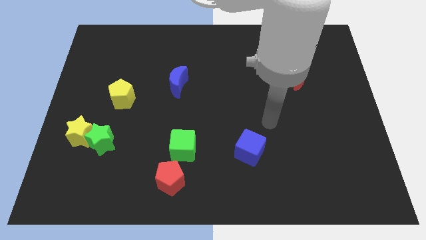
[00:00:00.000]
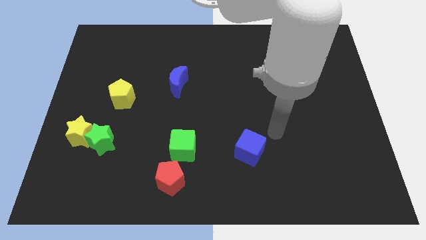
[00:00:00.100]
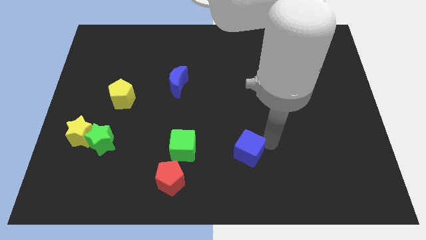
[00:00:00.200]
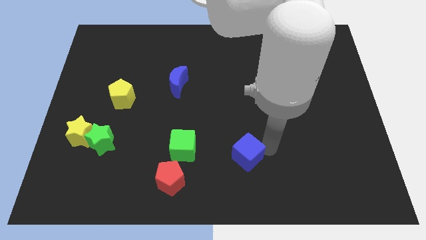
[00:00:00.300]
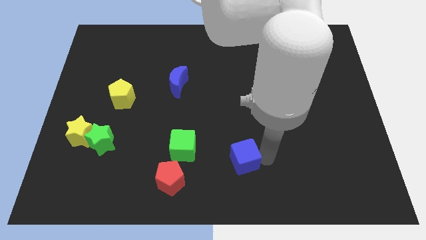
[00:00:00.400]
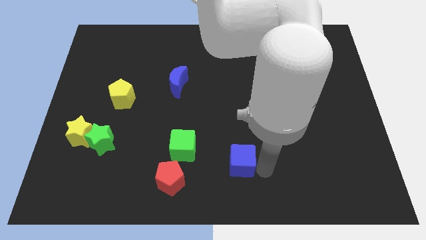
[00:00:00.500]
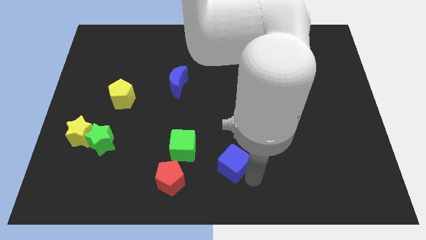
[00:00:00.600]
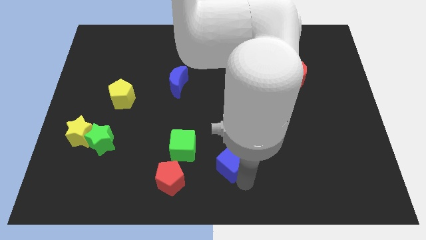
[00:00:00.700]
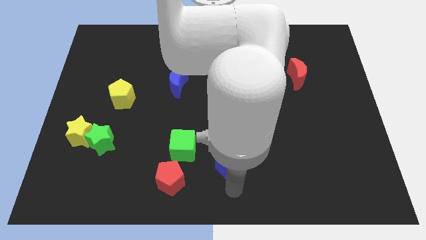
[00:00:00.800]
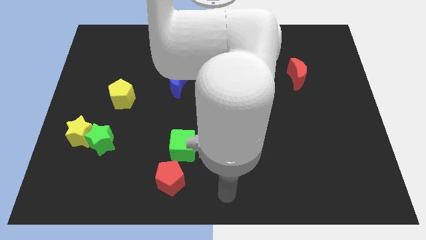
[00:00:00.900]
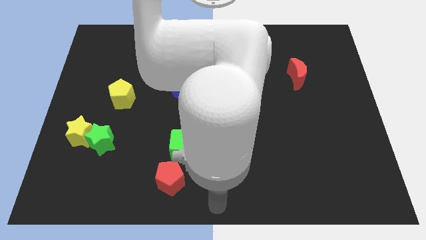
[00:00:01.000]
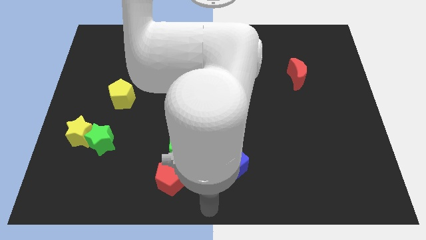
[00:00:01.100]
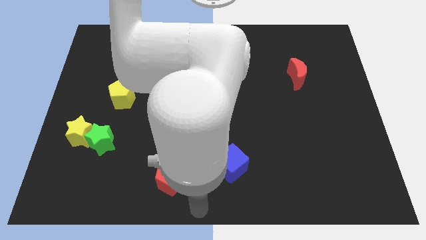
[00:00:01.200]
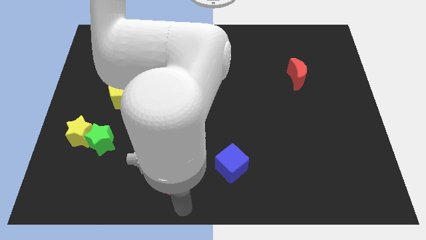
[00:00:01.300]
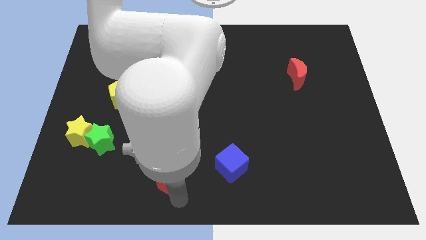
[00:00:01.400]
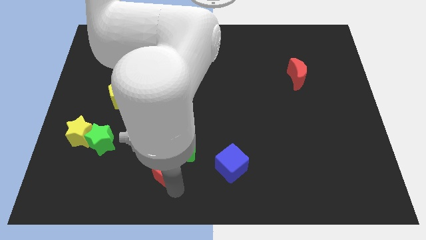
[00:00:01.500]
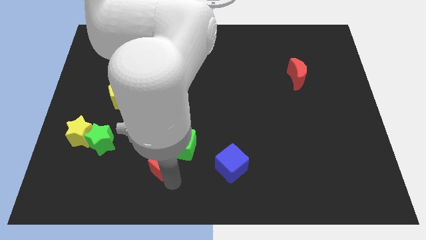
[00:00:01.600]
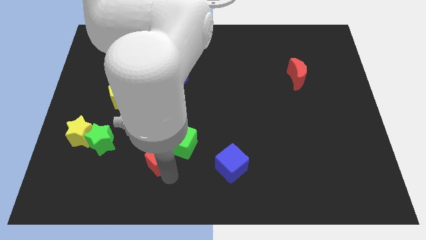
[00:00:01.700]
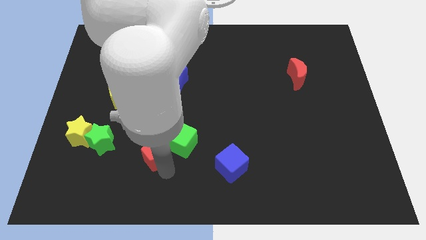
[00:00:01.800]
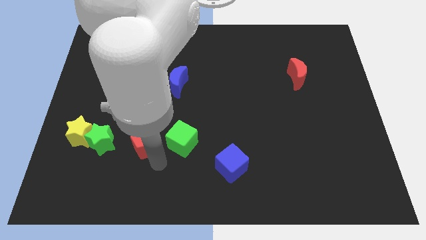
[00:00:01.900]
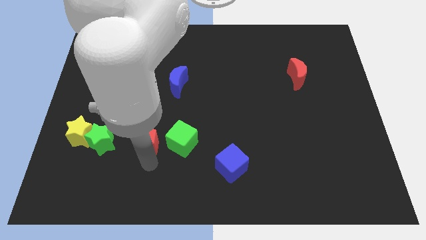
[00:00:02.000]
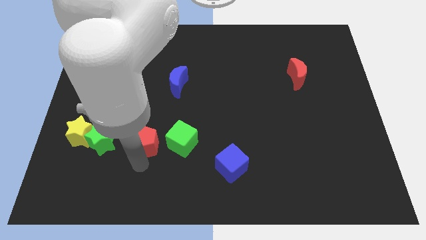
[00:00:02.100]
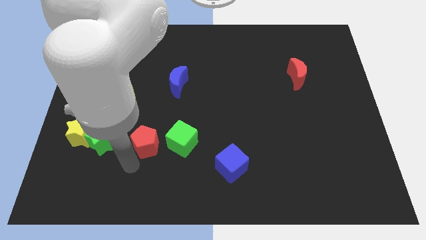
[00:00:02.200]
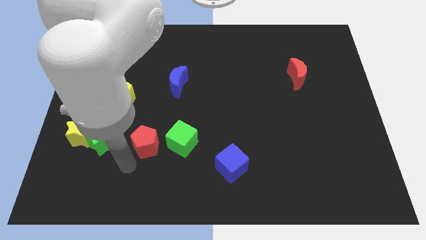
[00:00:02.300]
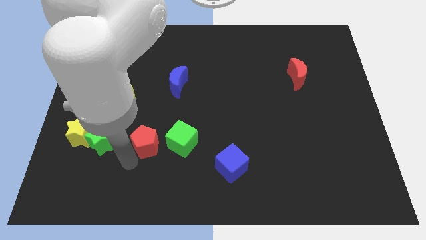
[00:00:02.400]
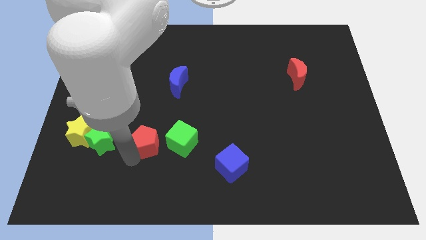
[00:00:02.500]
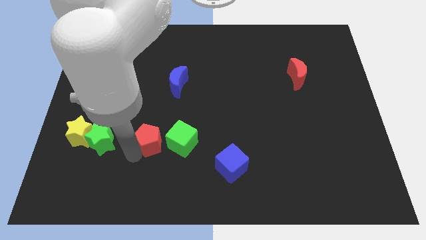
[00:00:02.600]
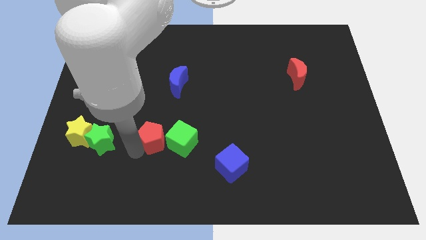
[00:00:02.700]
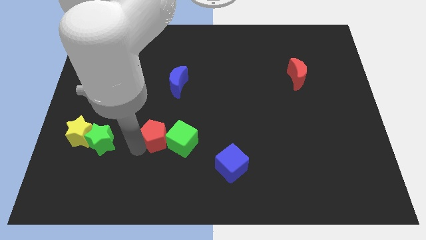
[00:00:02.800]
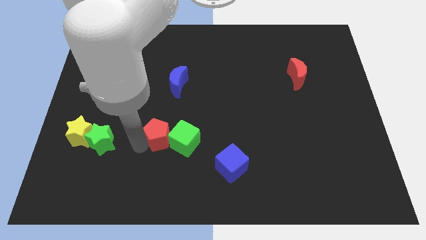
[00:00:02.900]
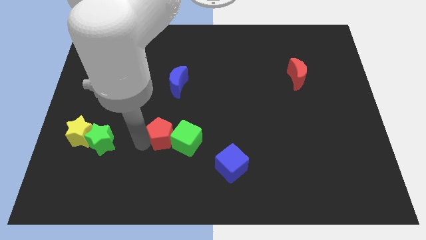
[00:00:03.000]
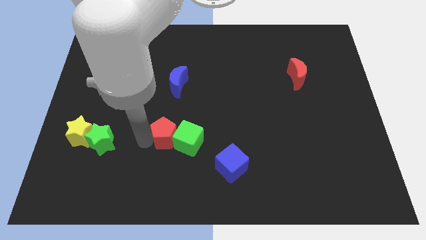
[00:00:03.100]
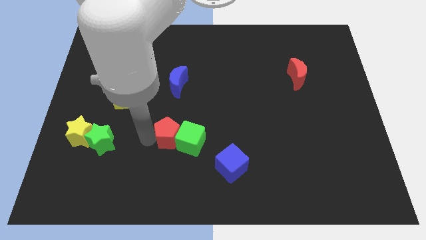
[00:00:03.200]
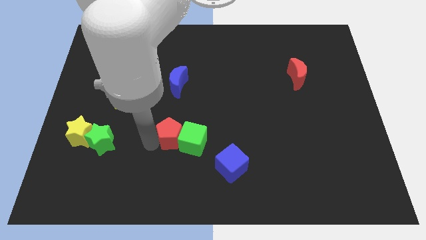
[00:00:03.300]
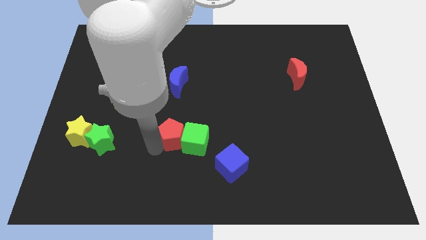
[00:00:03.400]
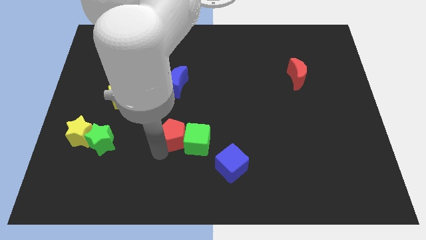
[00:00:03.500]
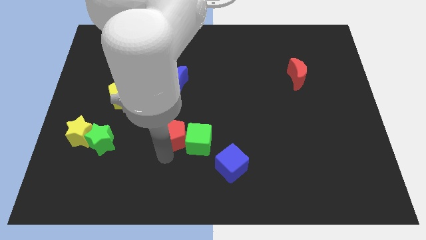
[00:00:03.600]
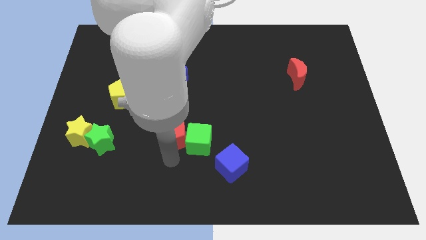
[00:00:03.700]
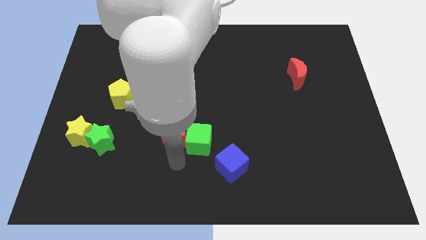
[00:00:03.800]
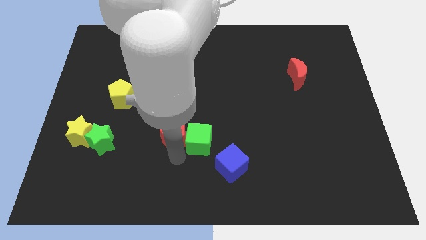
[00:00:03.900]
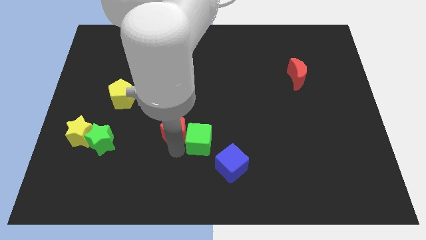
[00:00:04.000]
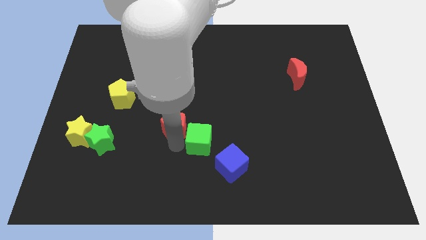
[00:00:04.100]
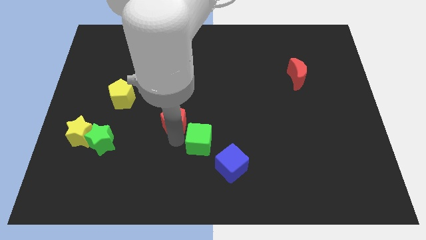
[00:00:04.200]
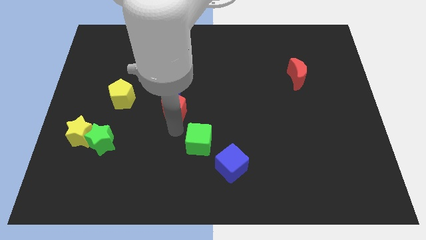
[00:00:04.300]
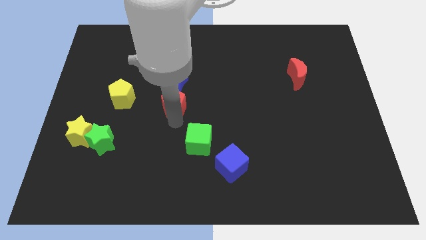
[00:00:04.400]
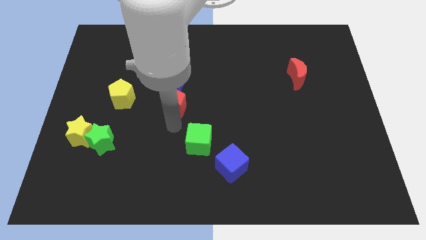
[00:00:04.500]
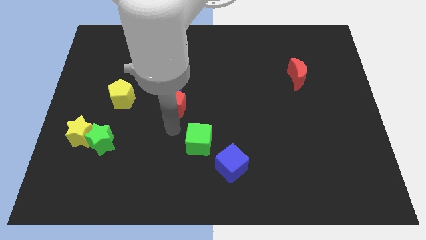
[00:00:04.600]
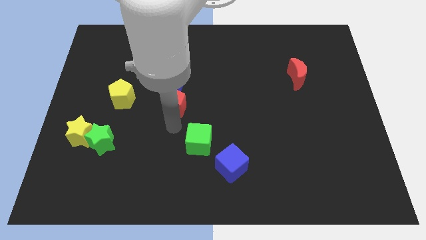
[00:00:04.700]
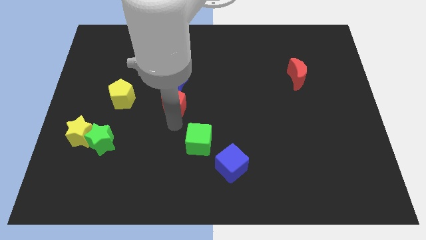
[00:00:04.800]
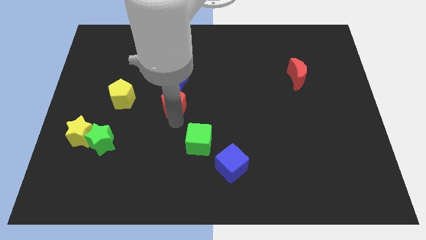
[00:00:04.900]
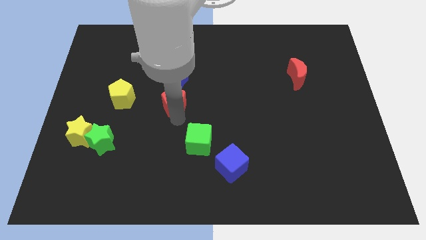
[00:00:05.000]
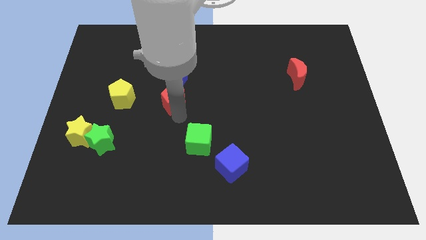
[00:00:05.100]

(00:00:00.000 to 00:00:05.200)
move the red pentagon close to the blue moon

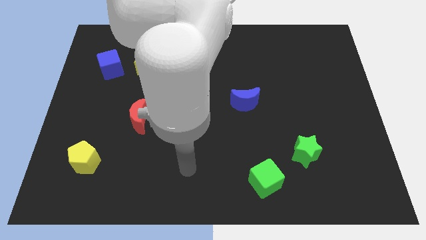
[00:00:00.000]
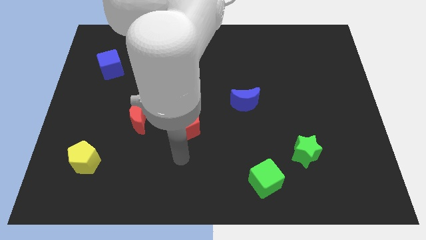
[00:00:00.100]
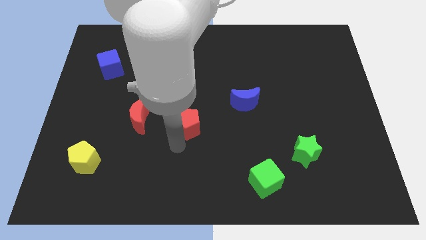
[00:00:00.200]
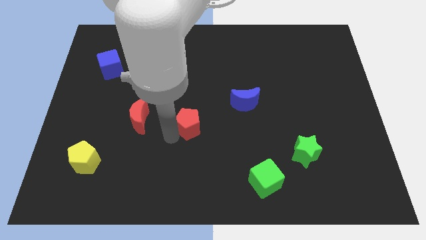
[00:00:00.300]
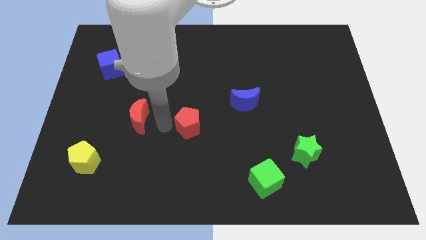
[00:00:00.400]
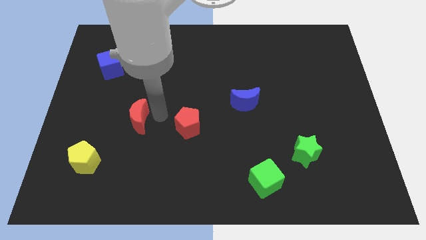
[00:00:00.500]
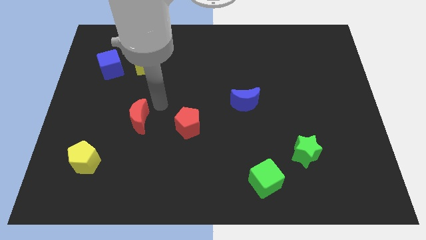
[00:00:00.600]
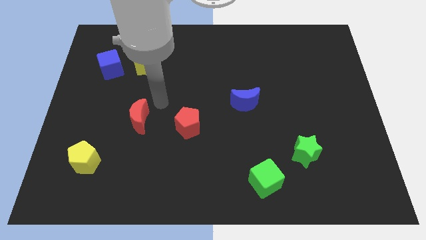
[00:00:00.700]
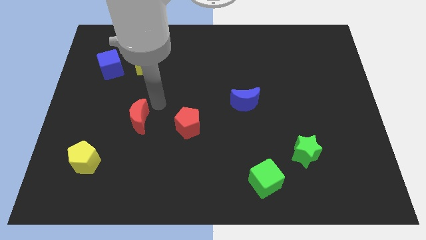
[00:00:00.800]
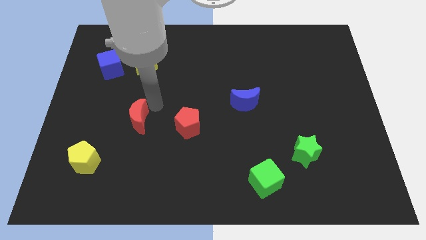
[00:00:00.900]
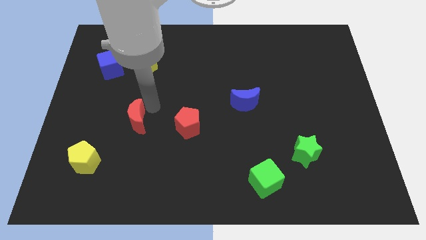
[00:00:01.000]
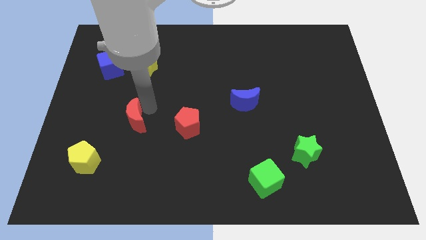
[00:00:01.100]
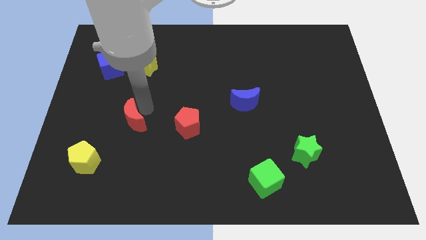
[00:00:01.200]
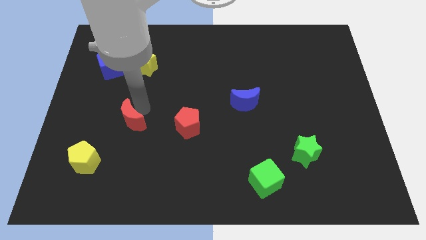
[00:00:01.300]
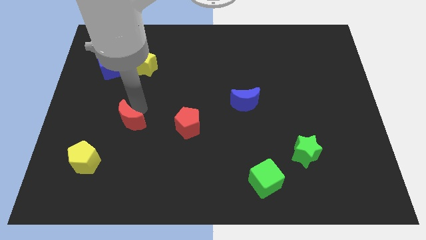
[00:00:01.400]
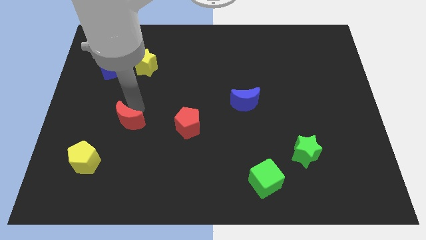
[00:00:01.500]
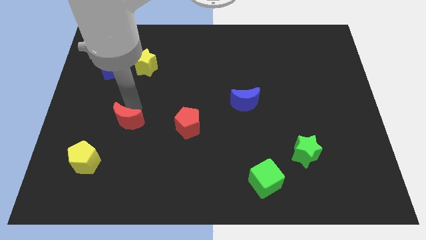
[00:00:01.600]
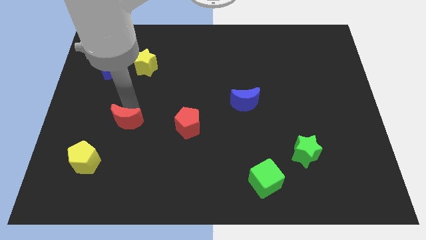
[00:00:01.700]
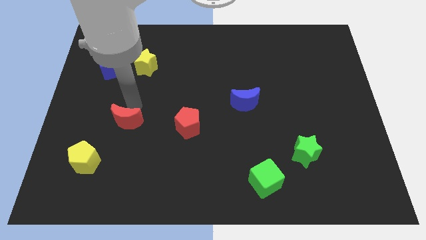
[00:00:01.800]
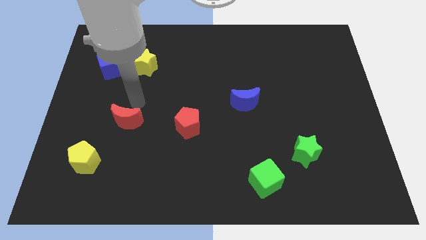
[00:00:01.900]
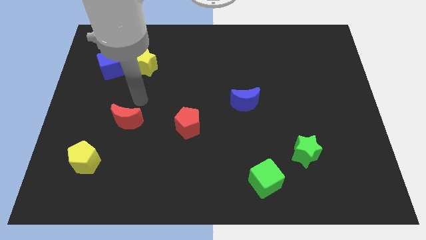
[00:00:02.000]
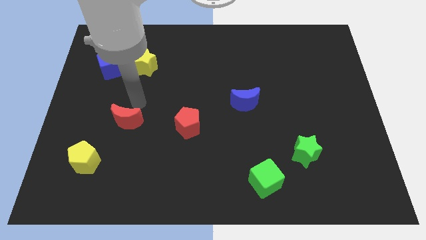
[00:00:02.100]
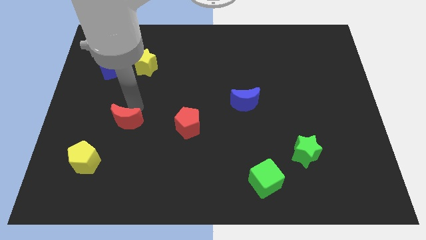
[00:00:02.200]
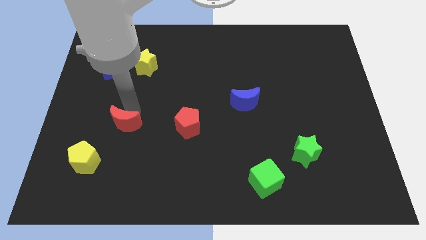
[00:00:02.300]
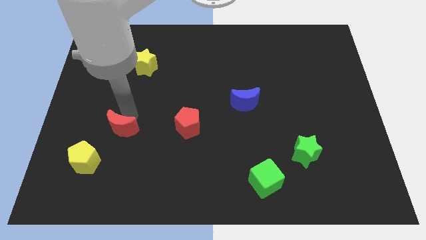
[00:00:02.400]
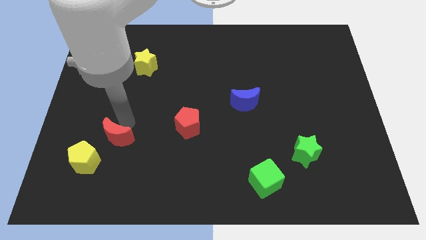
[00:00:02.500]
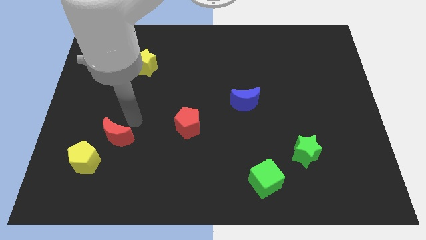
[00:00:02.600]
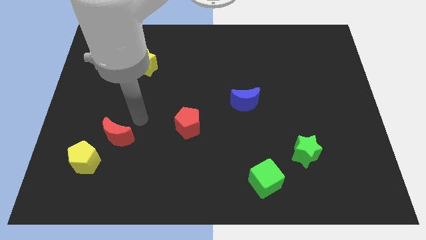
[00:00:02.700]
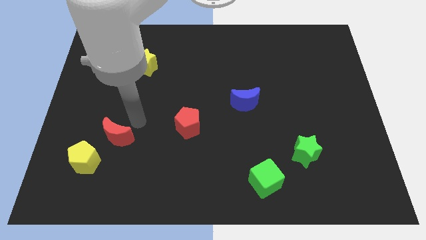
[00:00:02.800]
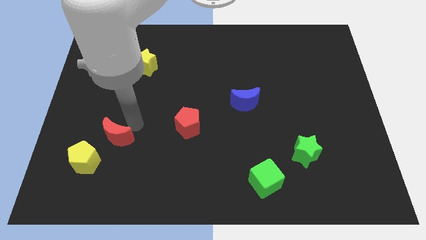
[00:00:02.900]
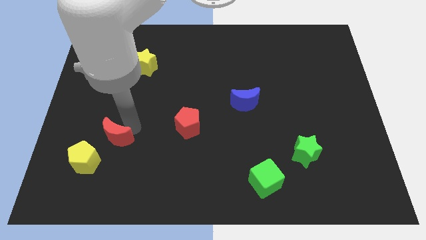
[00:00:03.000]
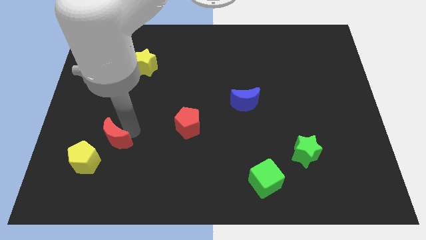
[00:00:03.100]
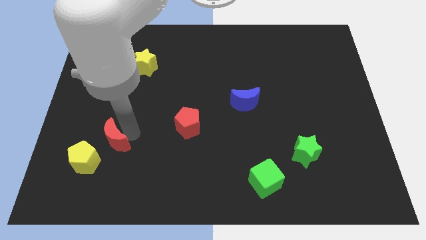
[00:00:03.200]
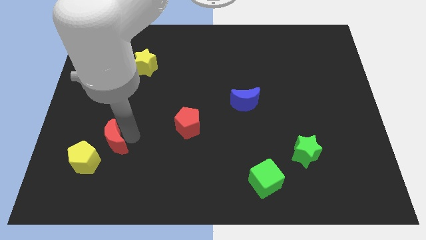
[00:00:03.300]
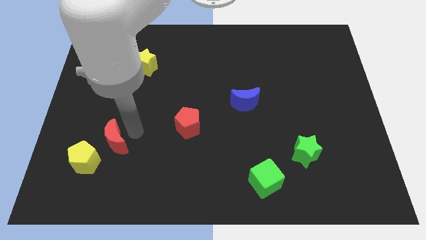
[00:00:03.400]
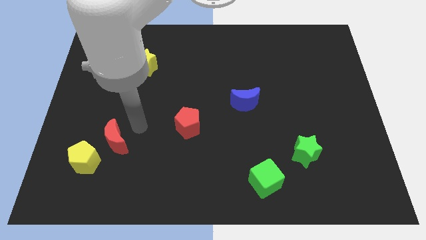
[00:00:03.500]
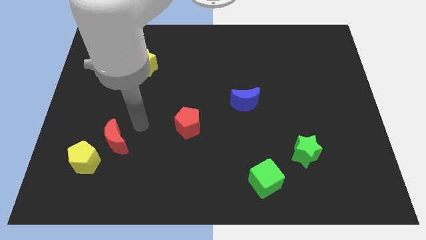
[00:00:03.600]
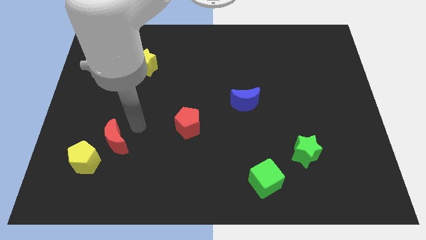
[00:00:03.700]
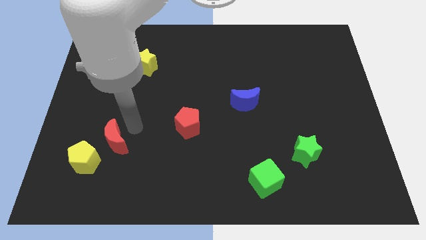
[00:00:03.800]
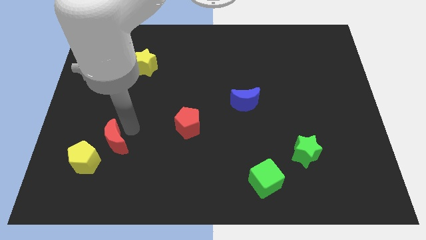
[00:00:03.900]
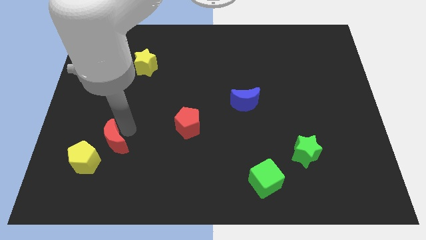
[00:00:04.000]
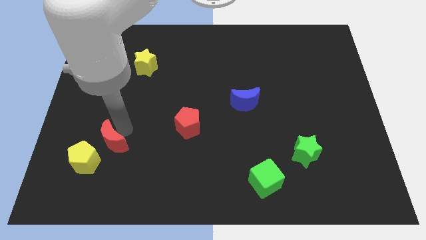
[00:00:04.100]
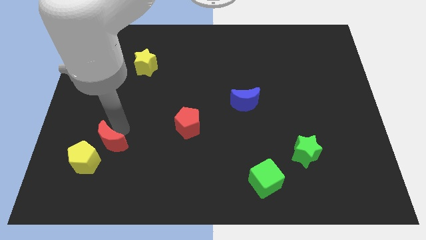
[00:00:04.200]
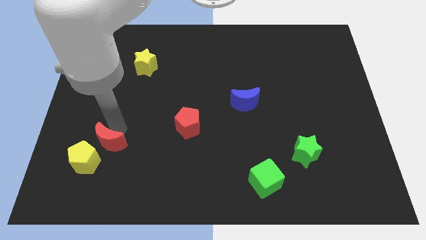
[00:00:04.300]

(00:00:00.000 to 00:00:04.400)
move the red moon to the yellow pentagon
